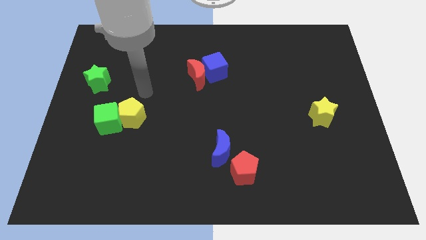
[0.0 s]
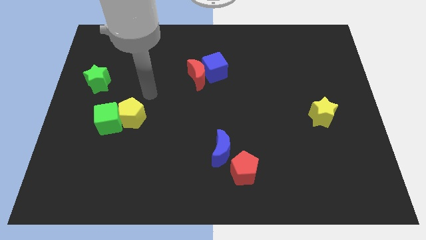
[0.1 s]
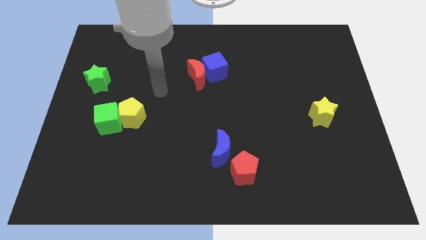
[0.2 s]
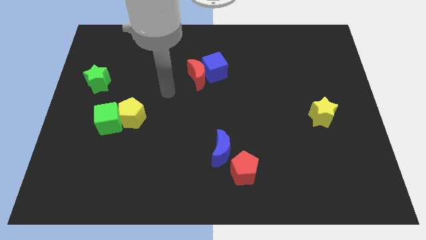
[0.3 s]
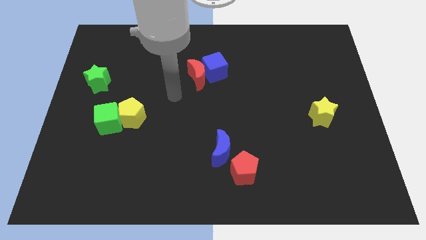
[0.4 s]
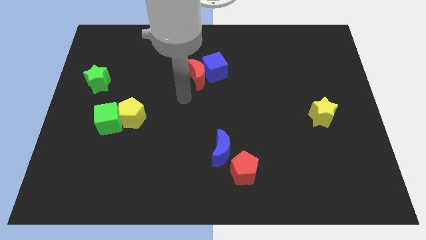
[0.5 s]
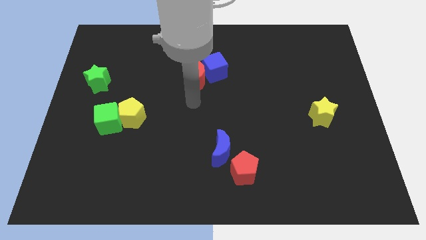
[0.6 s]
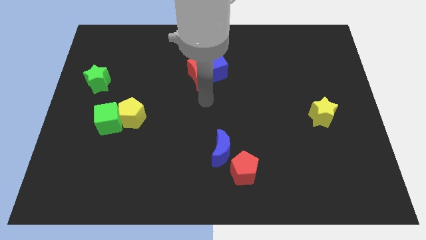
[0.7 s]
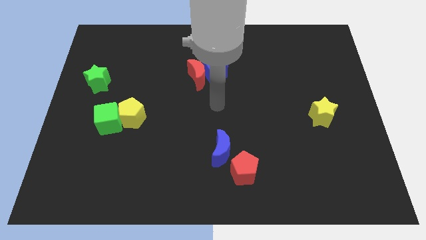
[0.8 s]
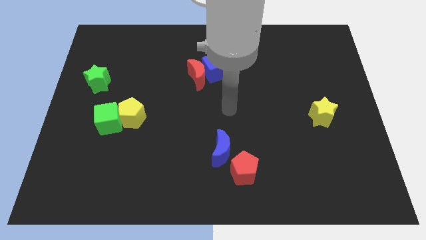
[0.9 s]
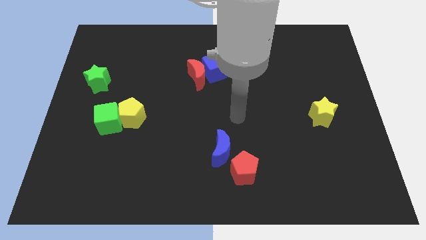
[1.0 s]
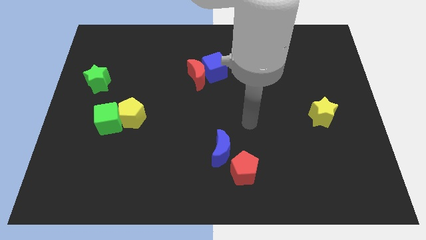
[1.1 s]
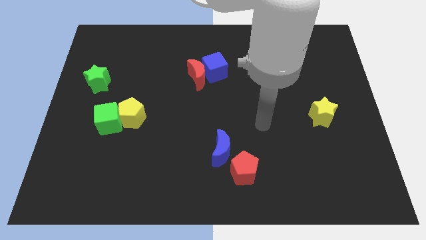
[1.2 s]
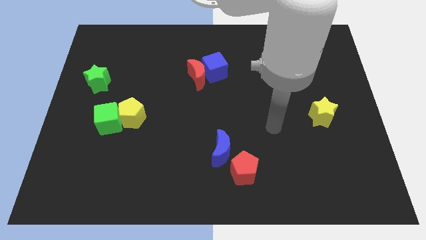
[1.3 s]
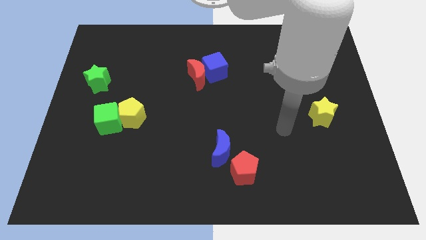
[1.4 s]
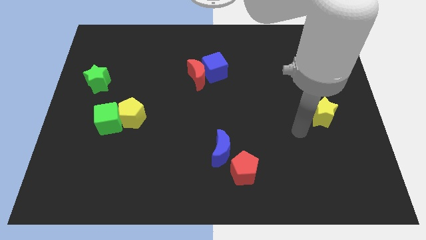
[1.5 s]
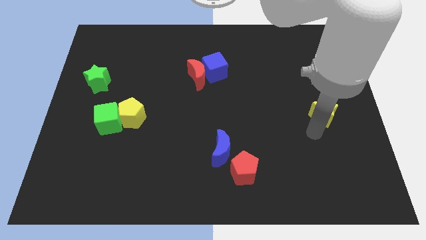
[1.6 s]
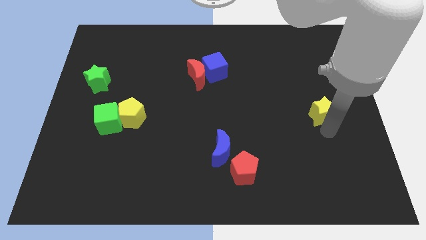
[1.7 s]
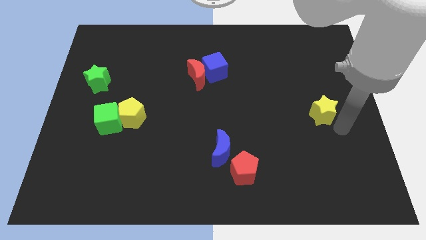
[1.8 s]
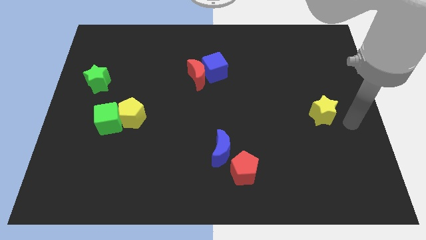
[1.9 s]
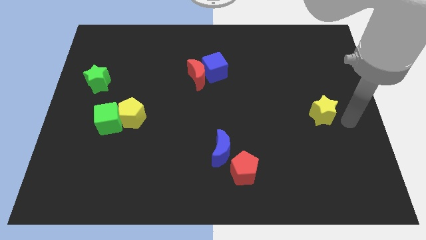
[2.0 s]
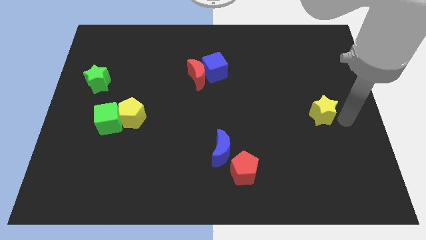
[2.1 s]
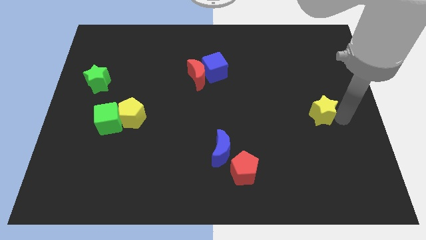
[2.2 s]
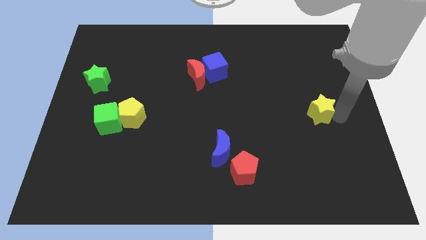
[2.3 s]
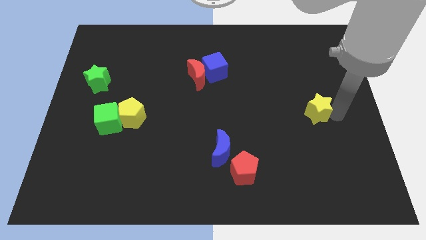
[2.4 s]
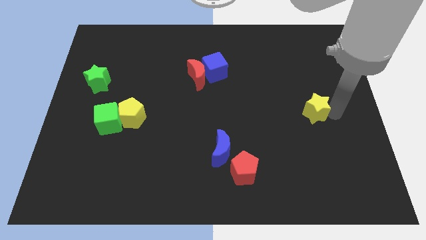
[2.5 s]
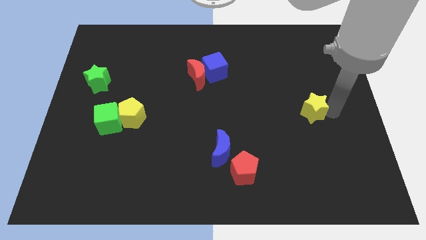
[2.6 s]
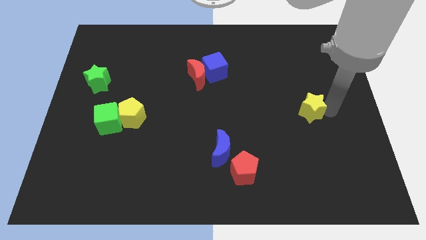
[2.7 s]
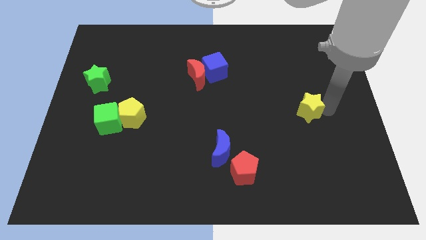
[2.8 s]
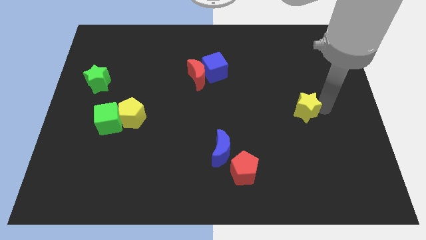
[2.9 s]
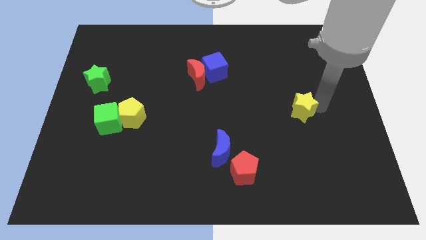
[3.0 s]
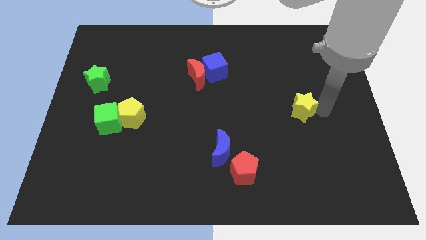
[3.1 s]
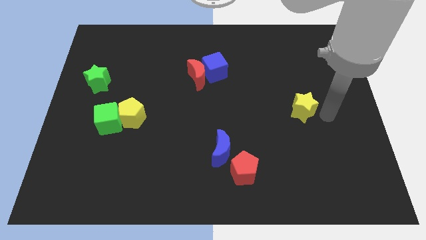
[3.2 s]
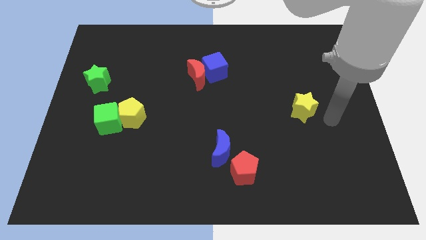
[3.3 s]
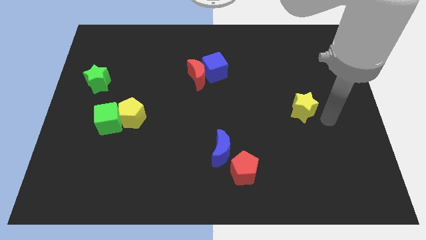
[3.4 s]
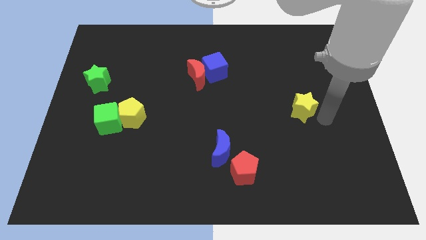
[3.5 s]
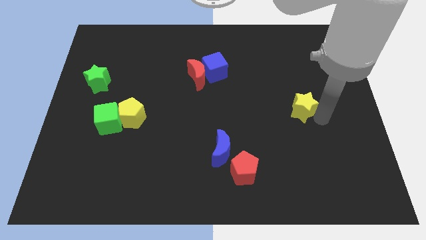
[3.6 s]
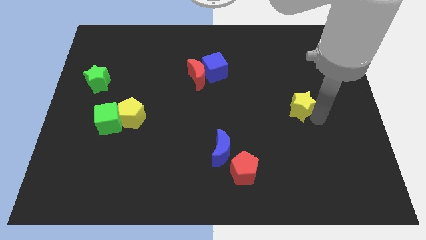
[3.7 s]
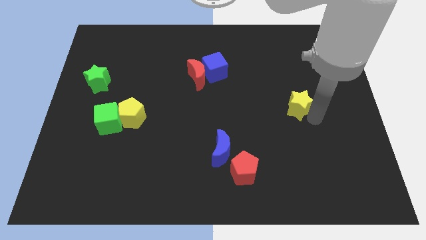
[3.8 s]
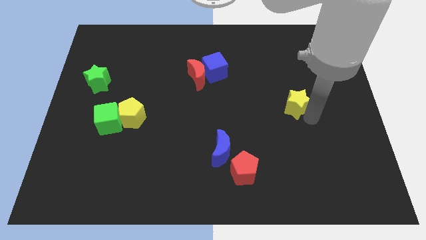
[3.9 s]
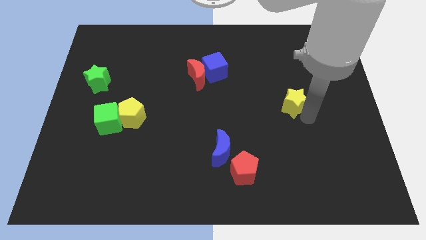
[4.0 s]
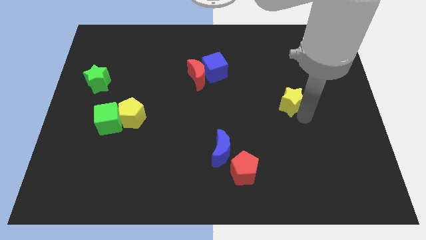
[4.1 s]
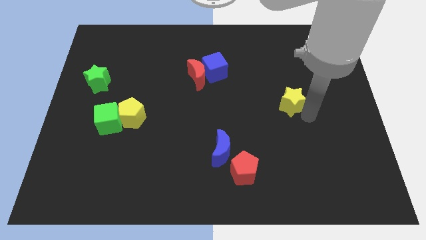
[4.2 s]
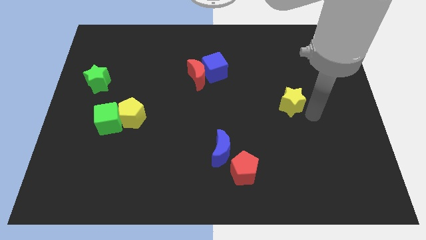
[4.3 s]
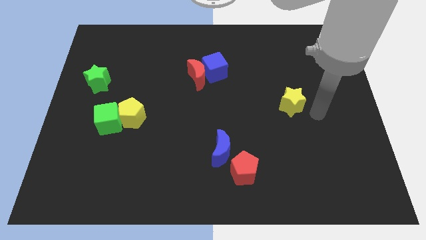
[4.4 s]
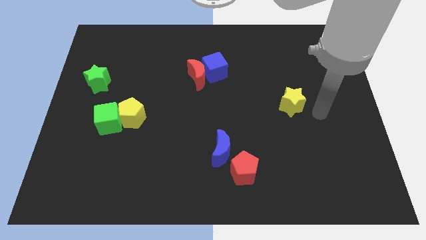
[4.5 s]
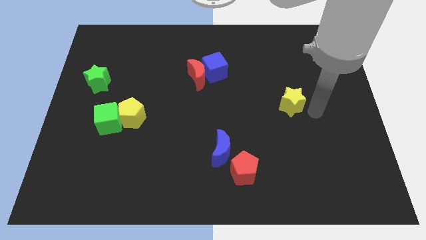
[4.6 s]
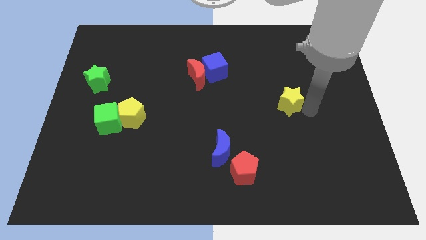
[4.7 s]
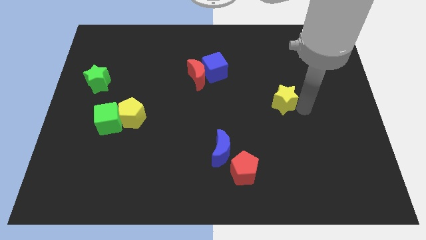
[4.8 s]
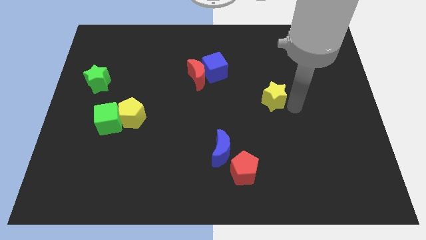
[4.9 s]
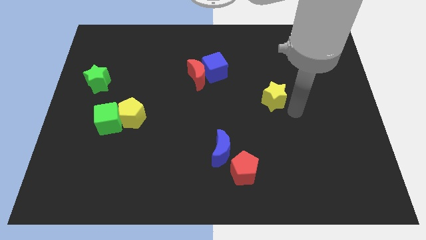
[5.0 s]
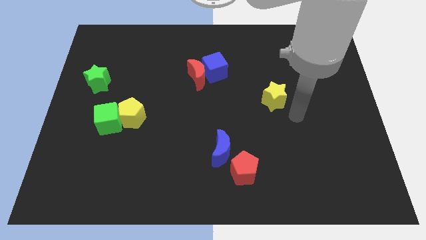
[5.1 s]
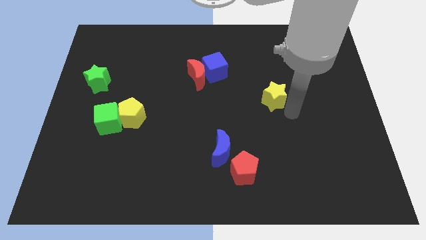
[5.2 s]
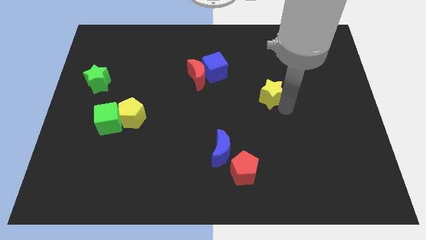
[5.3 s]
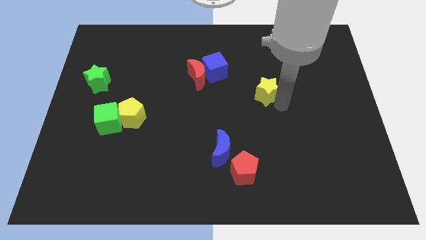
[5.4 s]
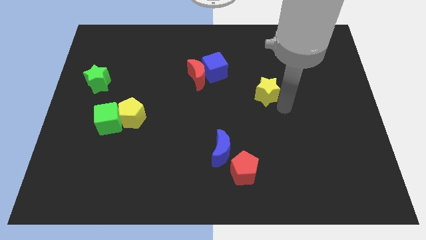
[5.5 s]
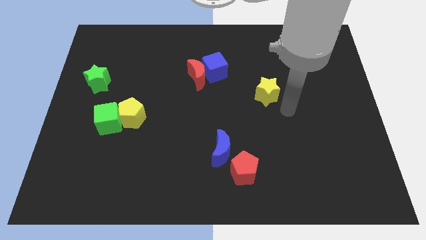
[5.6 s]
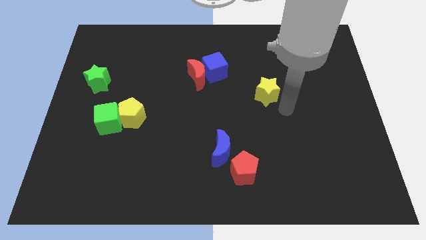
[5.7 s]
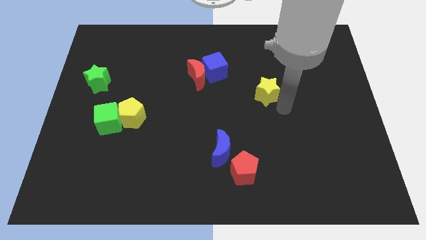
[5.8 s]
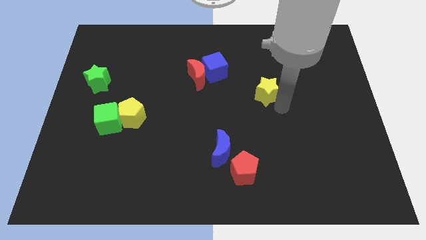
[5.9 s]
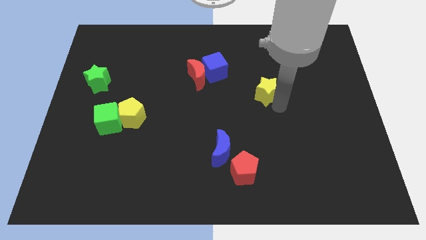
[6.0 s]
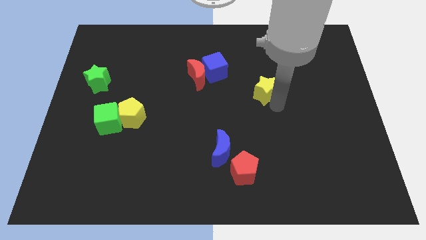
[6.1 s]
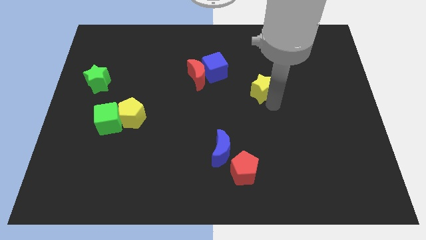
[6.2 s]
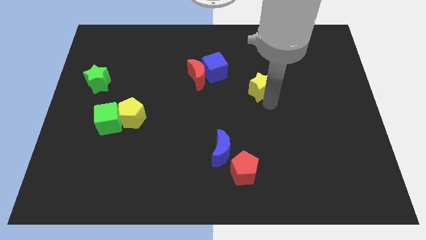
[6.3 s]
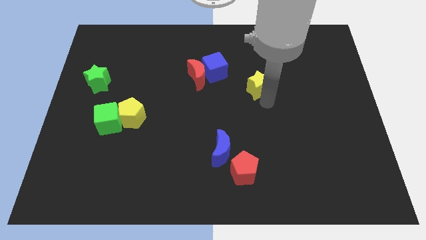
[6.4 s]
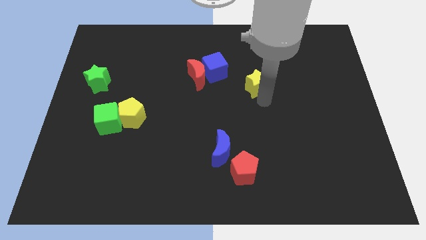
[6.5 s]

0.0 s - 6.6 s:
put the yellow star just right of the red moon

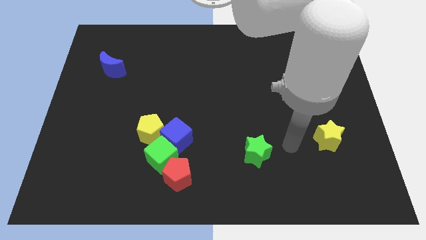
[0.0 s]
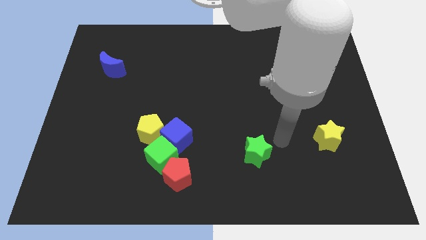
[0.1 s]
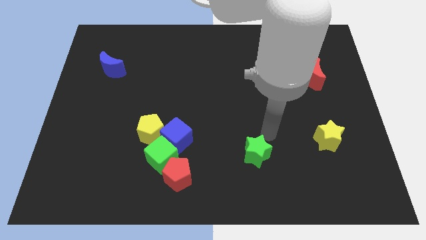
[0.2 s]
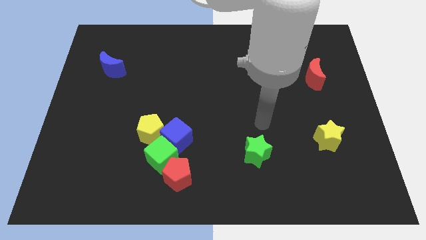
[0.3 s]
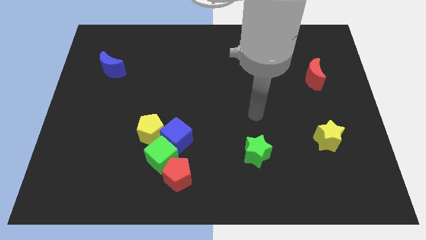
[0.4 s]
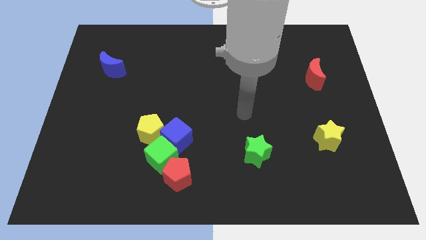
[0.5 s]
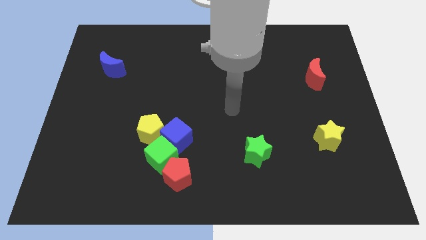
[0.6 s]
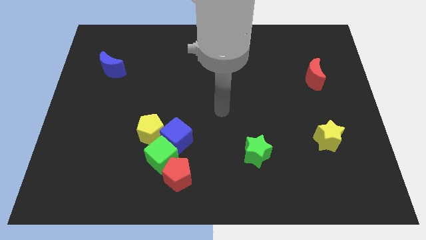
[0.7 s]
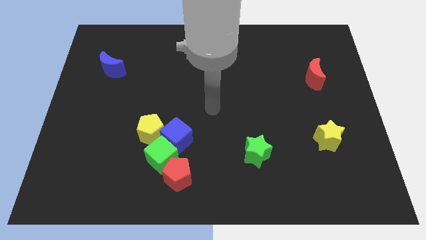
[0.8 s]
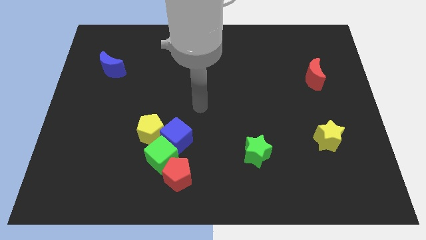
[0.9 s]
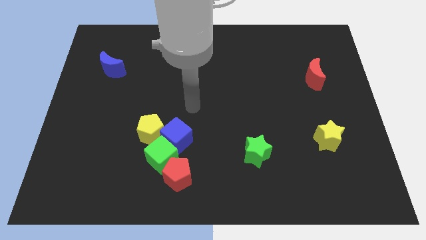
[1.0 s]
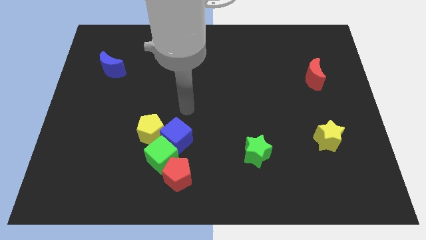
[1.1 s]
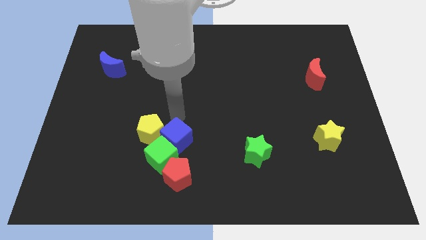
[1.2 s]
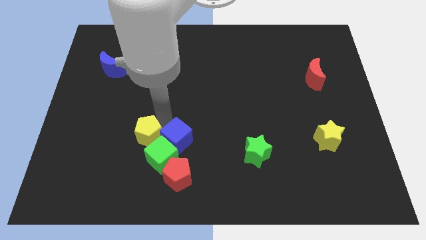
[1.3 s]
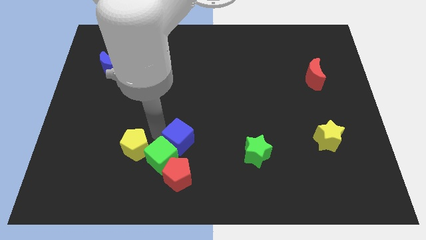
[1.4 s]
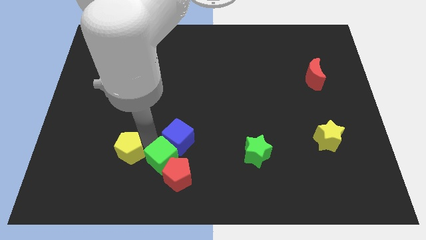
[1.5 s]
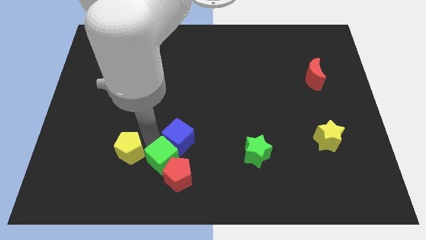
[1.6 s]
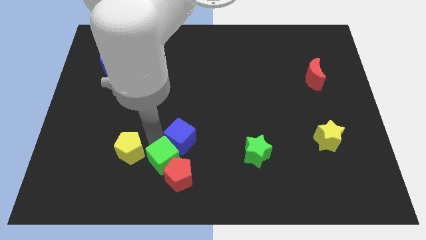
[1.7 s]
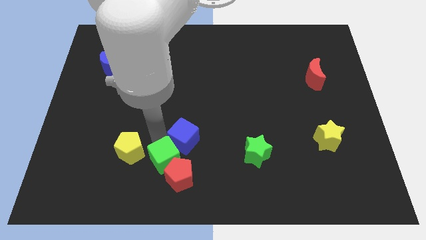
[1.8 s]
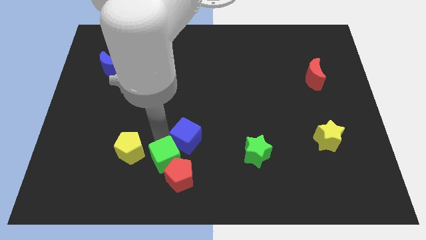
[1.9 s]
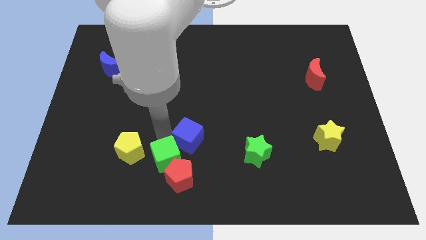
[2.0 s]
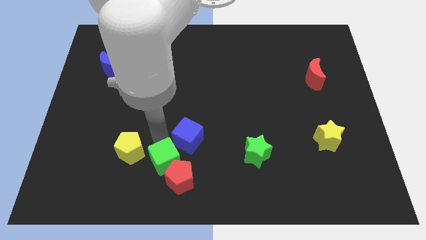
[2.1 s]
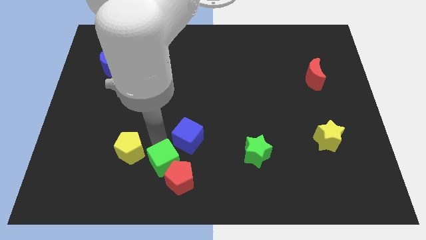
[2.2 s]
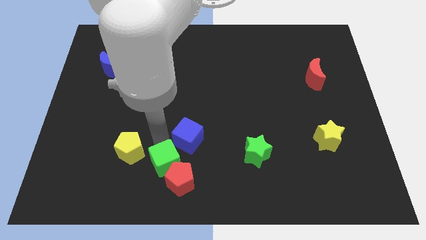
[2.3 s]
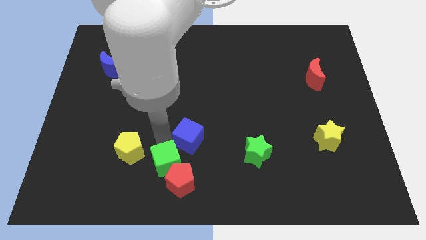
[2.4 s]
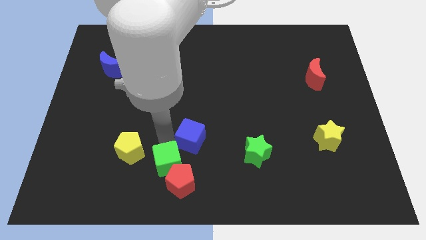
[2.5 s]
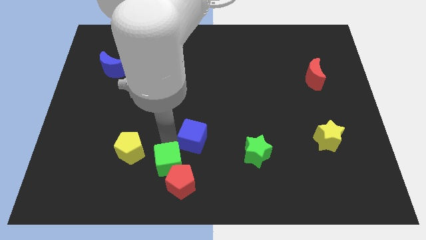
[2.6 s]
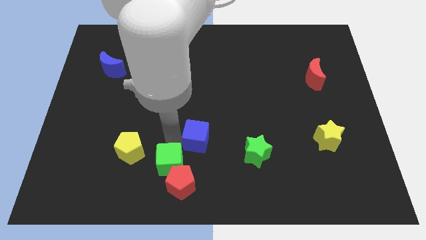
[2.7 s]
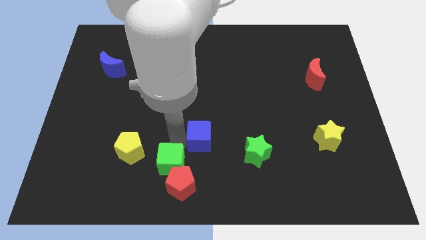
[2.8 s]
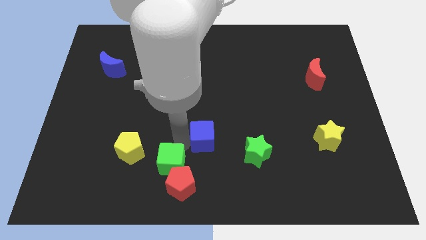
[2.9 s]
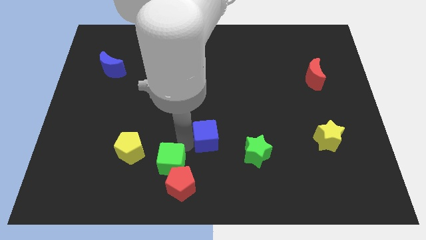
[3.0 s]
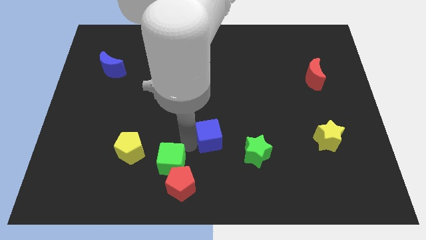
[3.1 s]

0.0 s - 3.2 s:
put the blue cube to the top left side of the green star
